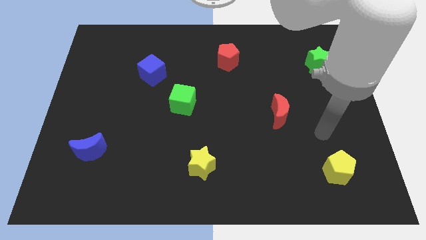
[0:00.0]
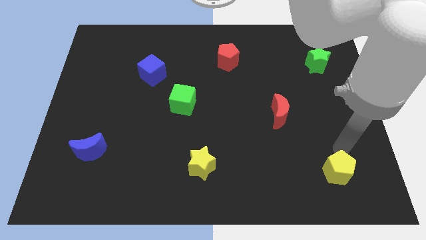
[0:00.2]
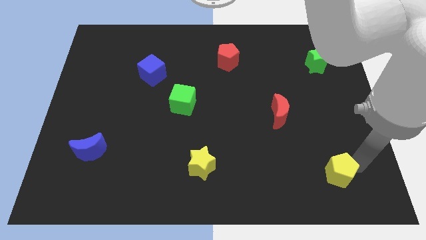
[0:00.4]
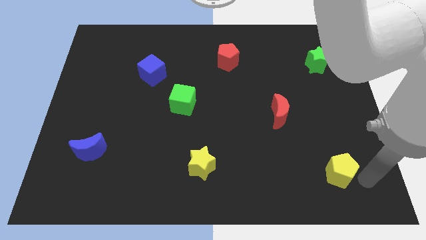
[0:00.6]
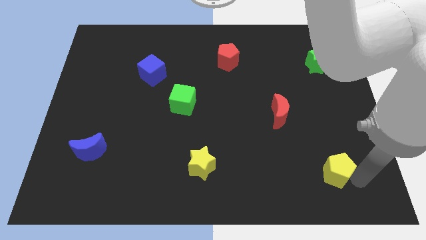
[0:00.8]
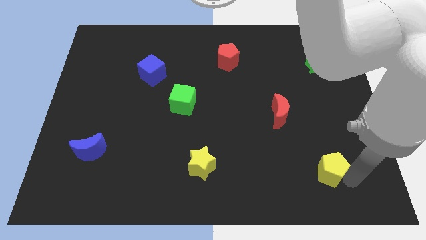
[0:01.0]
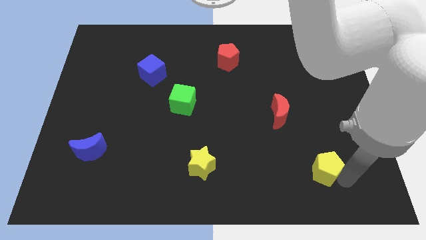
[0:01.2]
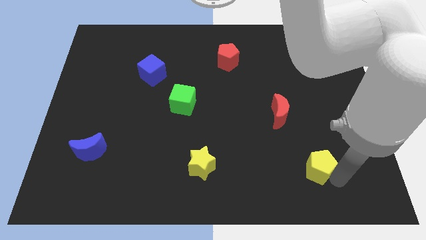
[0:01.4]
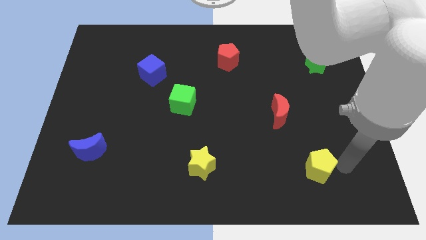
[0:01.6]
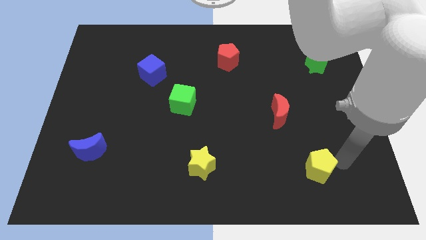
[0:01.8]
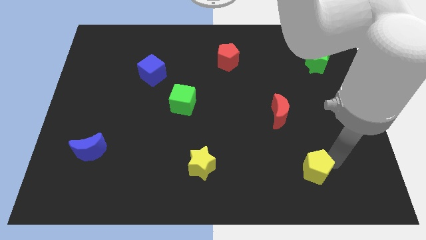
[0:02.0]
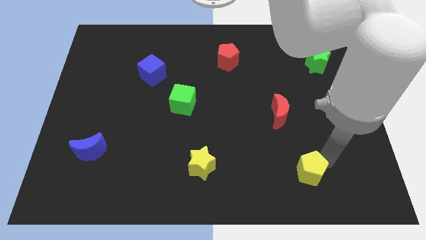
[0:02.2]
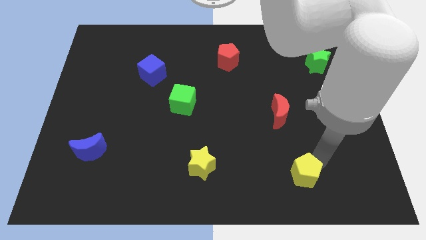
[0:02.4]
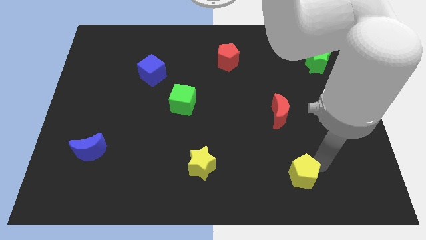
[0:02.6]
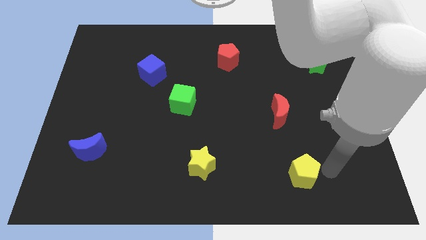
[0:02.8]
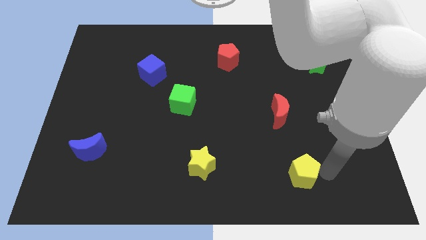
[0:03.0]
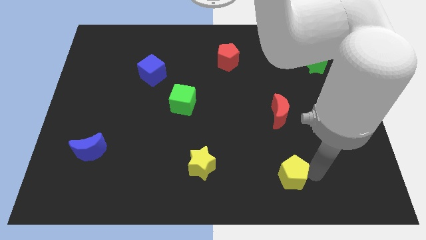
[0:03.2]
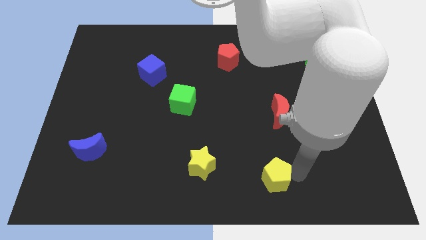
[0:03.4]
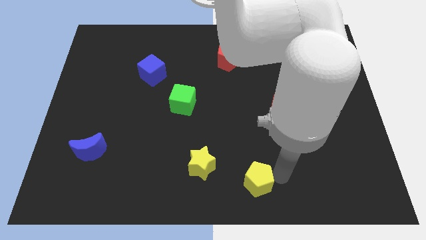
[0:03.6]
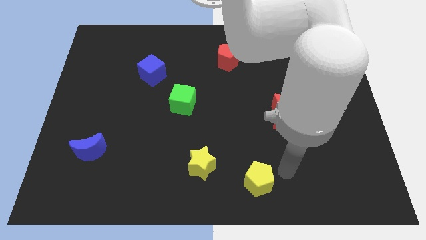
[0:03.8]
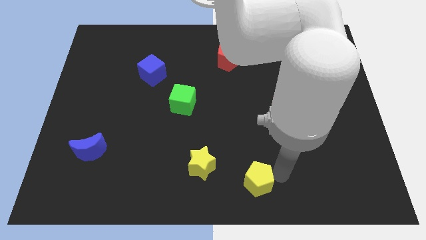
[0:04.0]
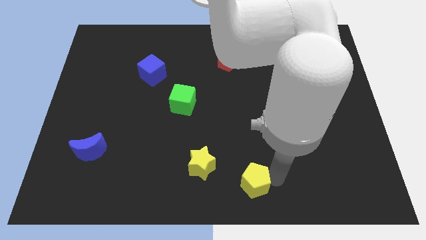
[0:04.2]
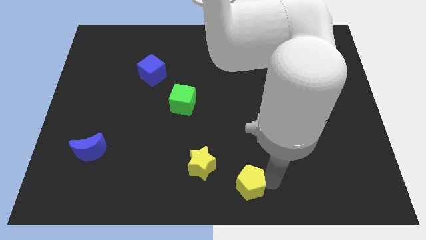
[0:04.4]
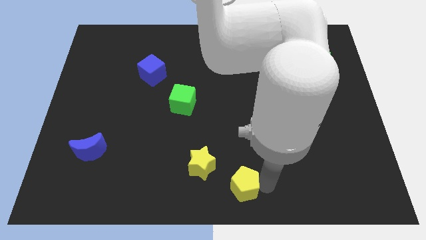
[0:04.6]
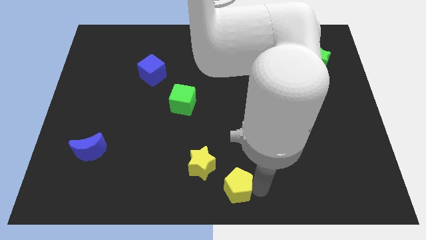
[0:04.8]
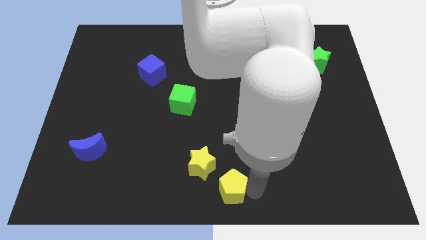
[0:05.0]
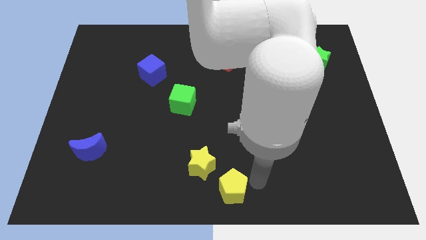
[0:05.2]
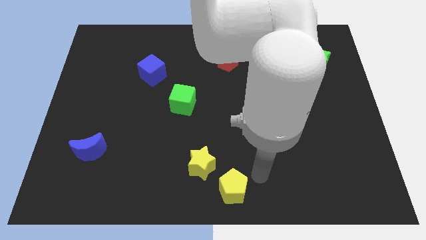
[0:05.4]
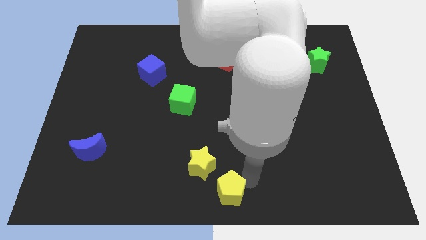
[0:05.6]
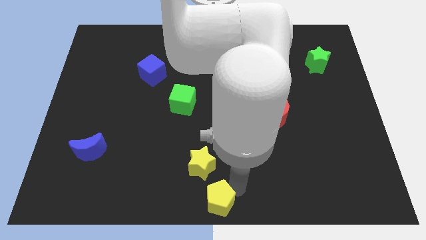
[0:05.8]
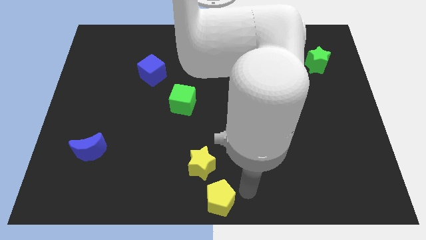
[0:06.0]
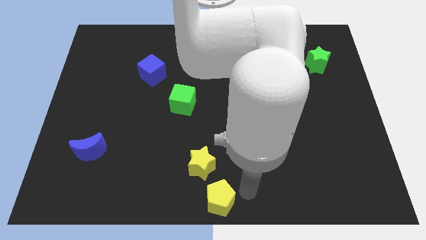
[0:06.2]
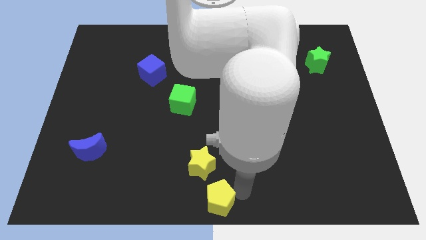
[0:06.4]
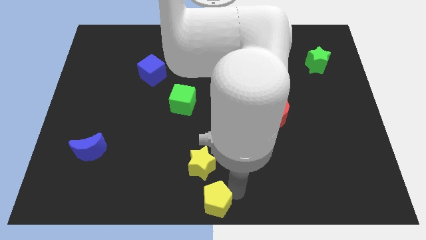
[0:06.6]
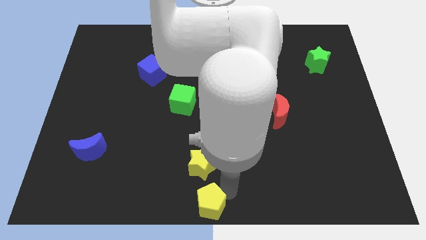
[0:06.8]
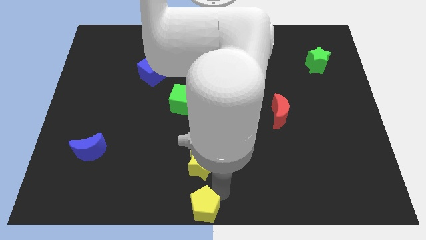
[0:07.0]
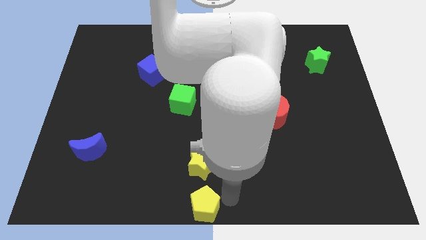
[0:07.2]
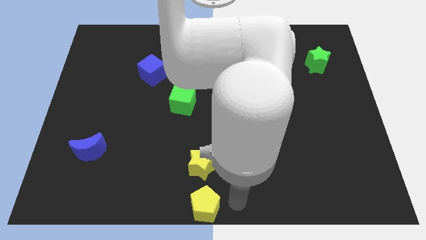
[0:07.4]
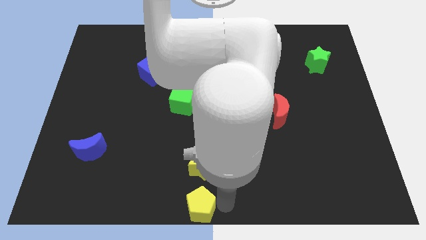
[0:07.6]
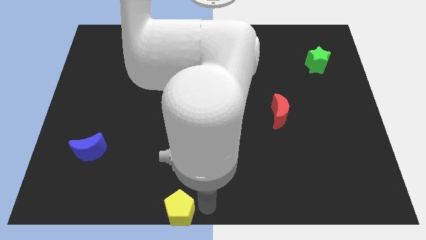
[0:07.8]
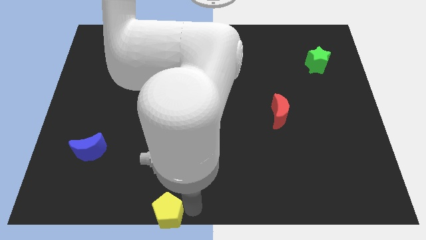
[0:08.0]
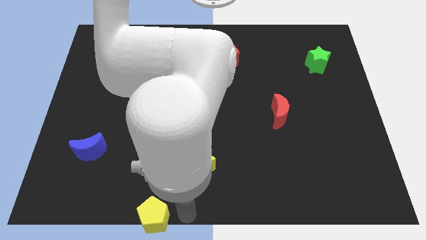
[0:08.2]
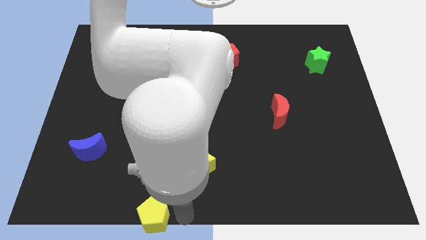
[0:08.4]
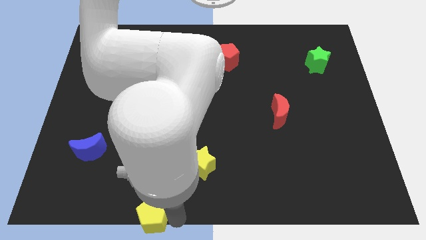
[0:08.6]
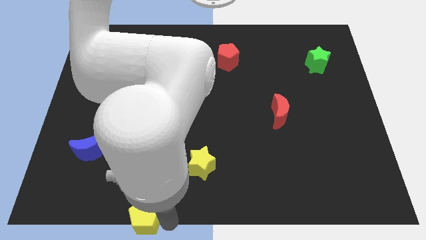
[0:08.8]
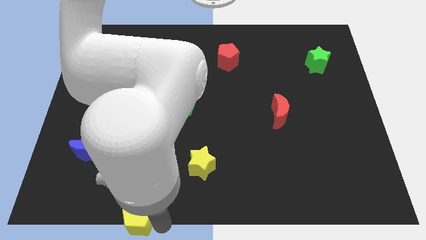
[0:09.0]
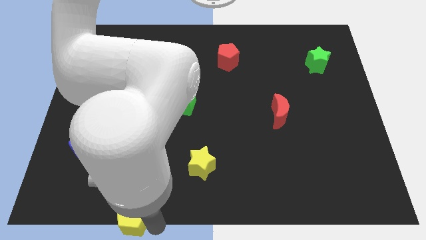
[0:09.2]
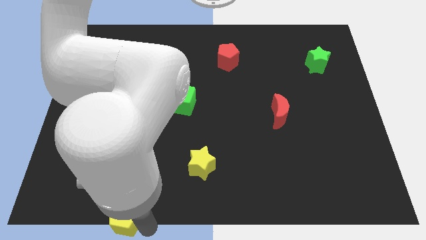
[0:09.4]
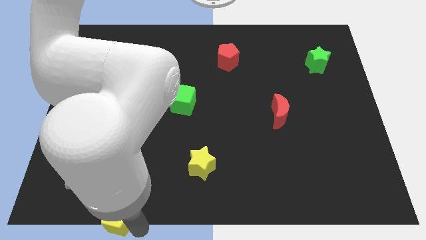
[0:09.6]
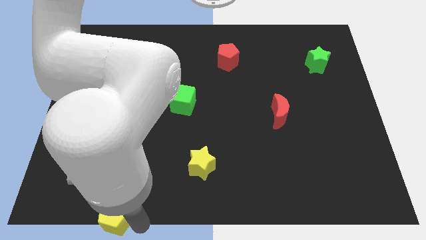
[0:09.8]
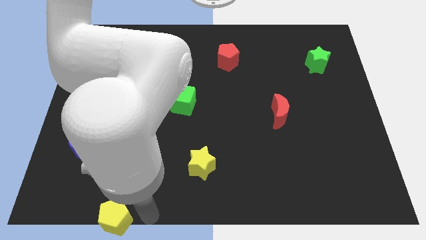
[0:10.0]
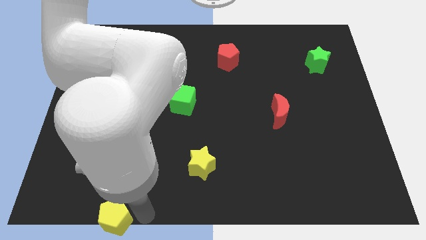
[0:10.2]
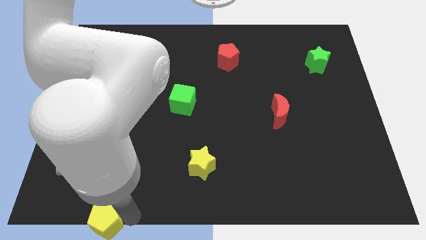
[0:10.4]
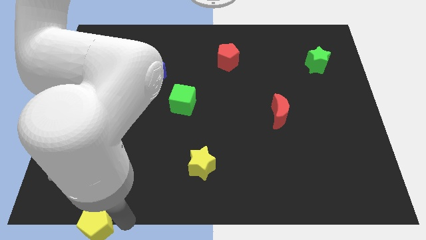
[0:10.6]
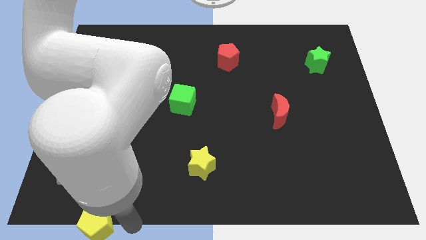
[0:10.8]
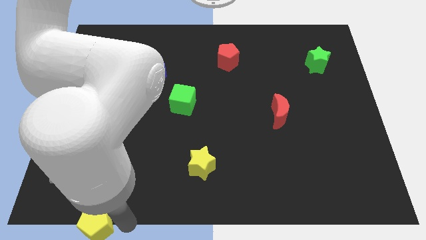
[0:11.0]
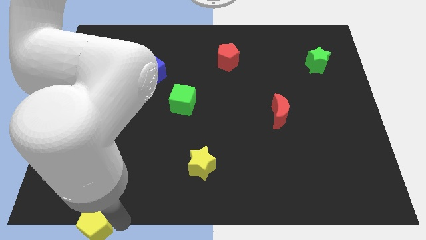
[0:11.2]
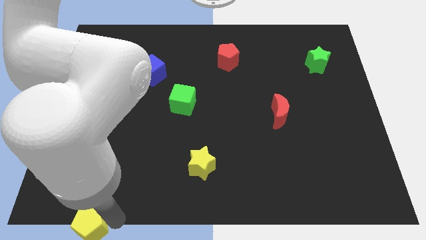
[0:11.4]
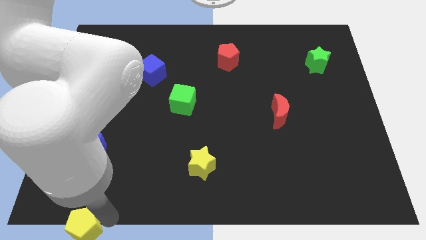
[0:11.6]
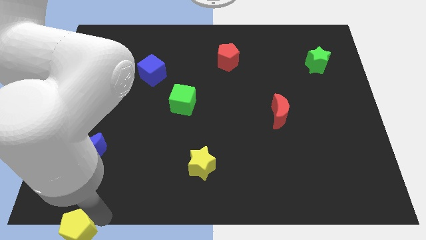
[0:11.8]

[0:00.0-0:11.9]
push the yellow pentagon to the lower left corner

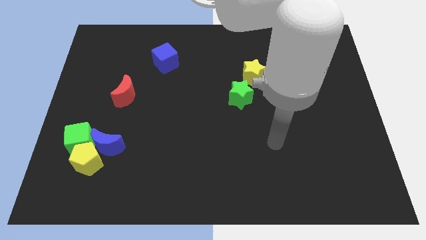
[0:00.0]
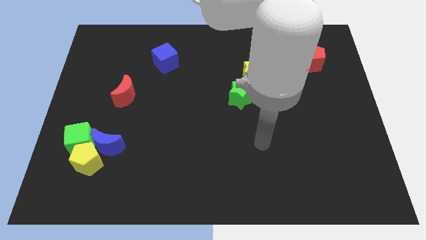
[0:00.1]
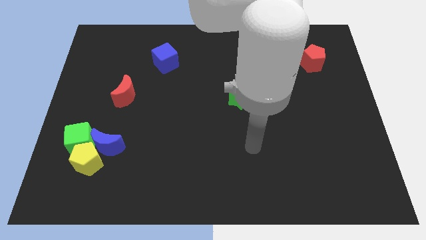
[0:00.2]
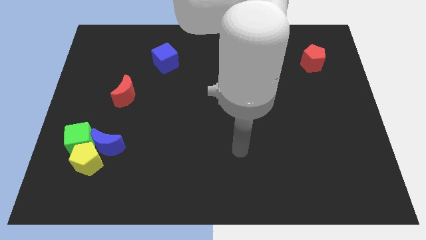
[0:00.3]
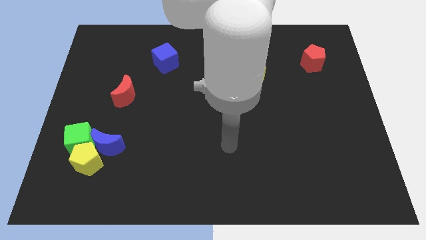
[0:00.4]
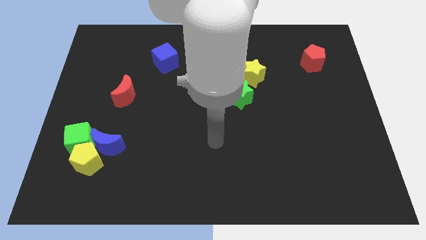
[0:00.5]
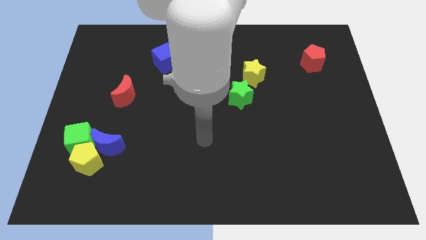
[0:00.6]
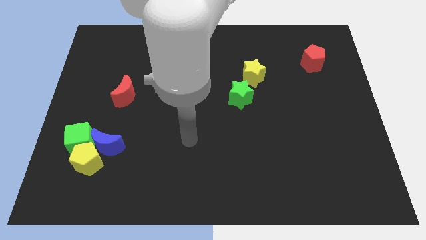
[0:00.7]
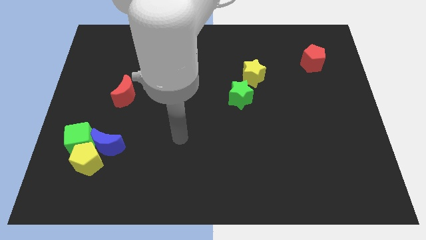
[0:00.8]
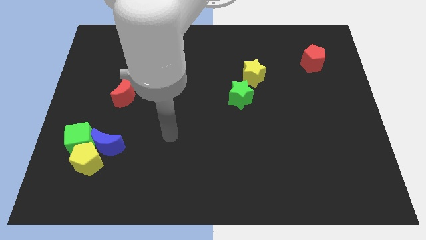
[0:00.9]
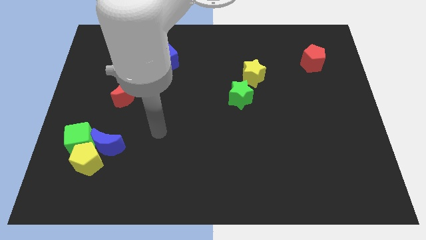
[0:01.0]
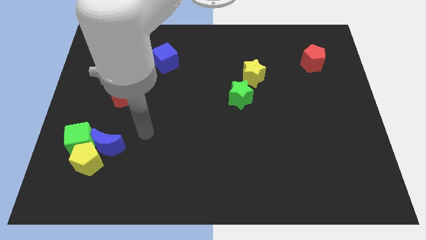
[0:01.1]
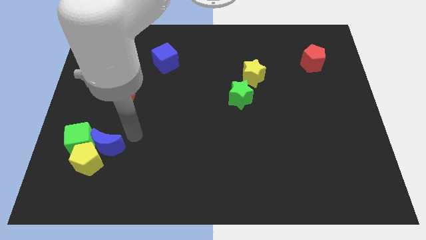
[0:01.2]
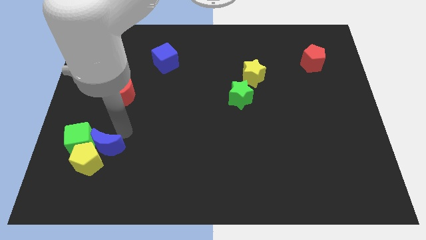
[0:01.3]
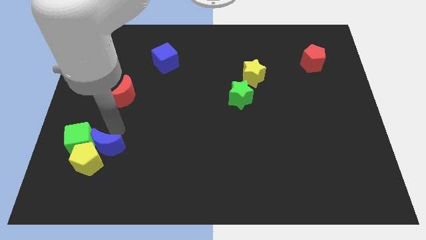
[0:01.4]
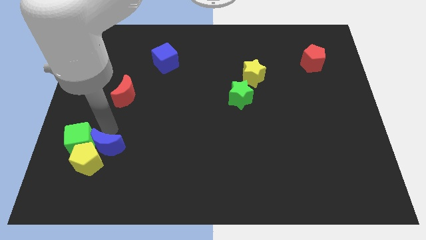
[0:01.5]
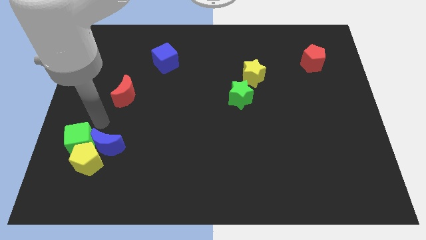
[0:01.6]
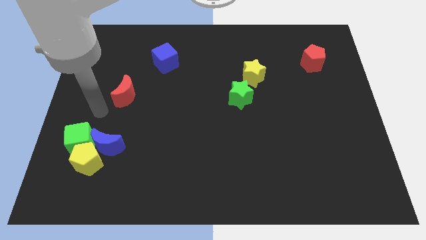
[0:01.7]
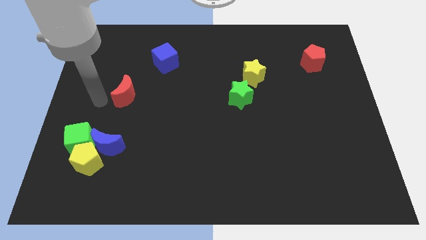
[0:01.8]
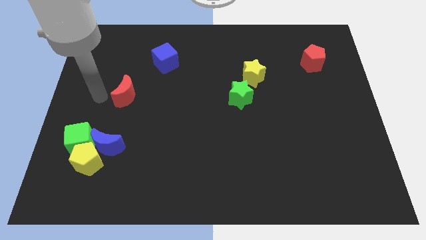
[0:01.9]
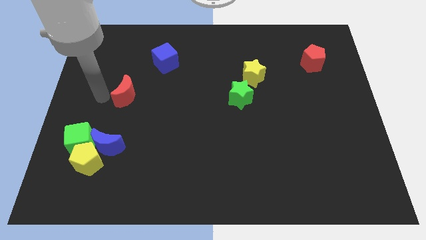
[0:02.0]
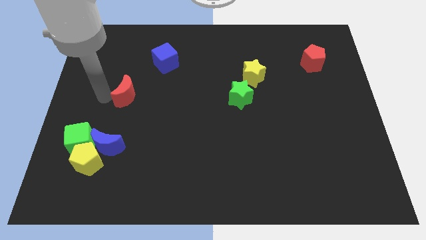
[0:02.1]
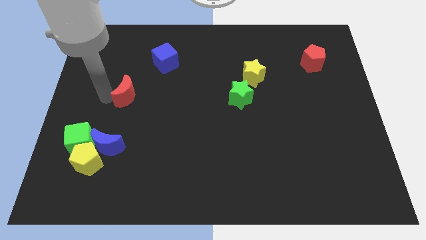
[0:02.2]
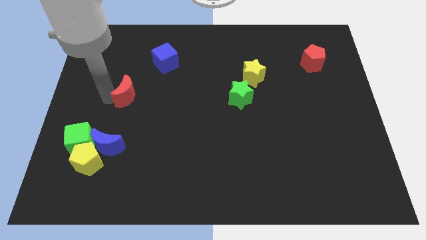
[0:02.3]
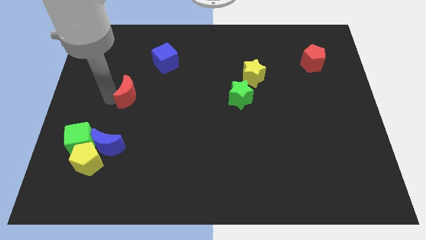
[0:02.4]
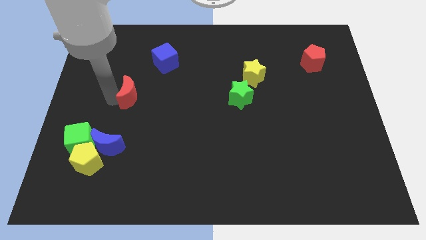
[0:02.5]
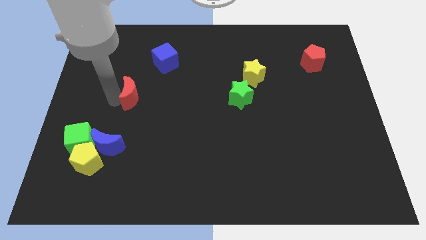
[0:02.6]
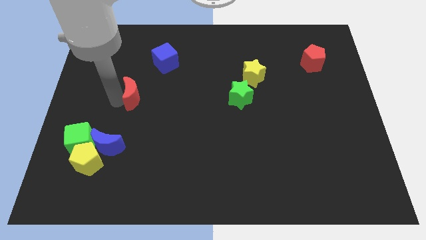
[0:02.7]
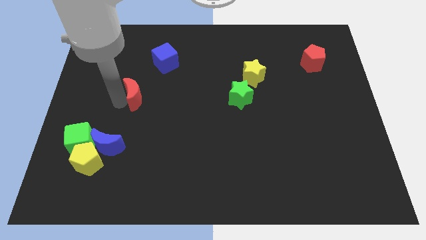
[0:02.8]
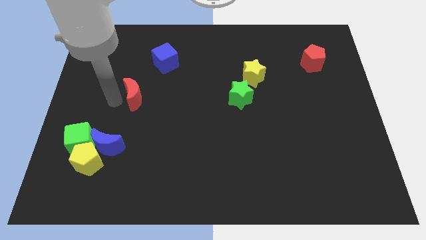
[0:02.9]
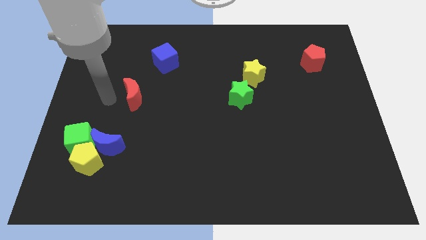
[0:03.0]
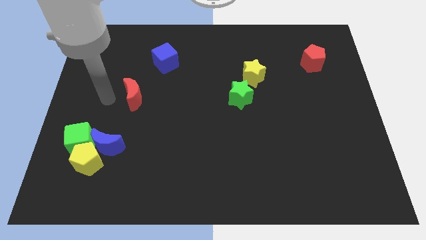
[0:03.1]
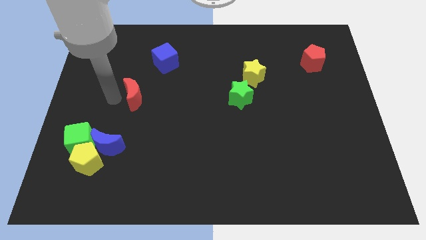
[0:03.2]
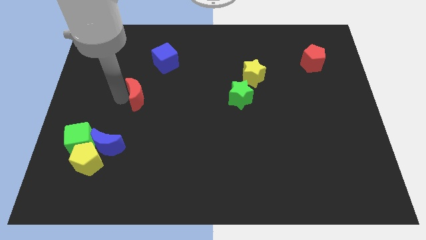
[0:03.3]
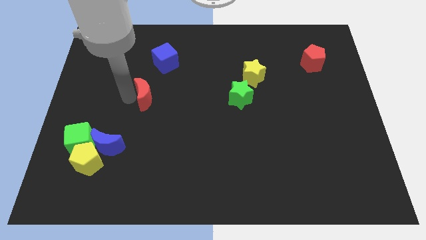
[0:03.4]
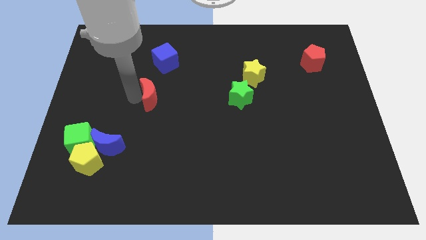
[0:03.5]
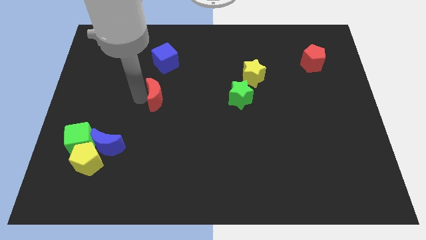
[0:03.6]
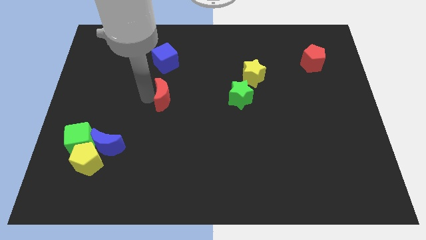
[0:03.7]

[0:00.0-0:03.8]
push the red moon to the center of the board
